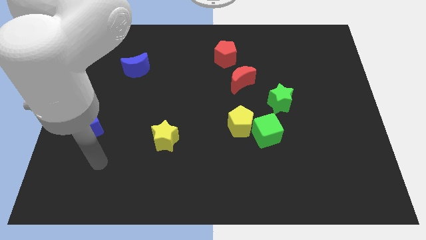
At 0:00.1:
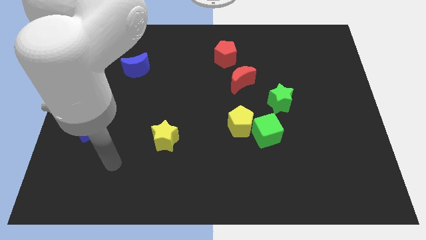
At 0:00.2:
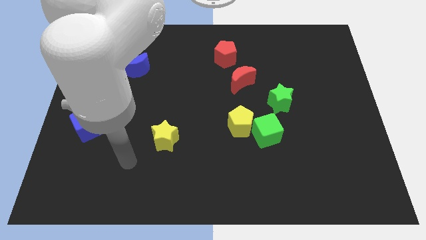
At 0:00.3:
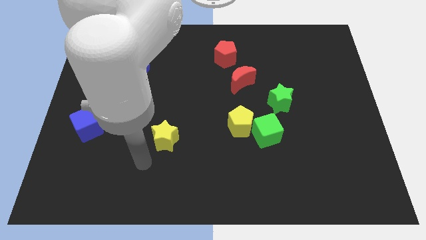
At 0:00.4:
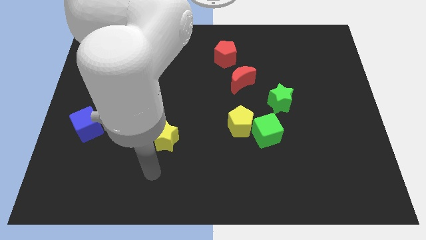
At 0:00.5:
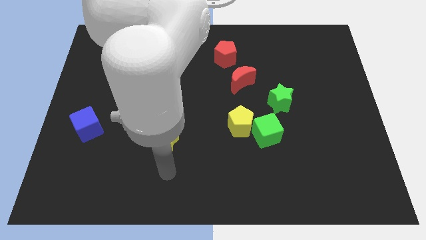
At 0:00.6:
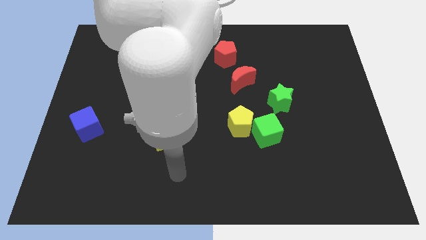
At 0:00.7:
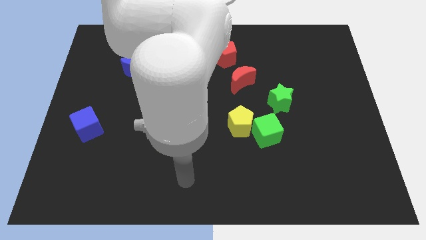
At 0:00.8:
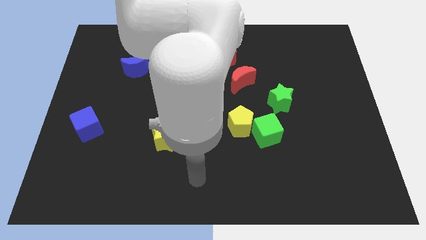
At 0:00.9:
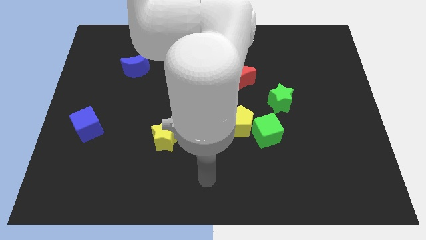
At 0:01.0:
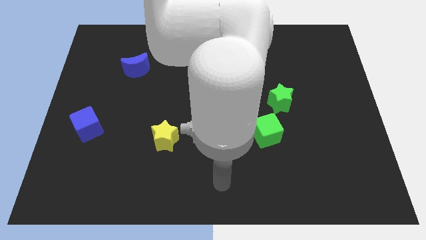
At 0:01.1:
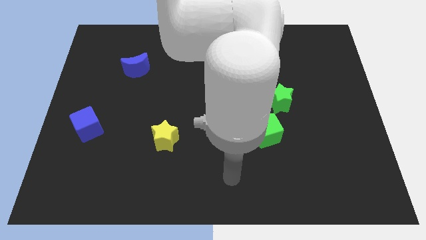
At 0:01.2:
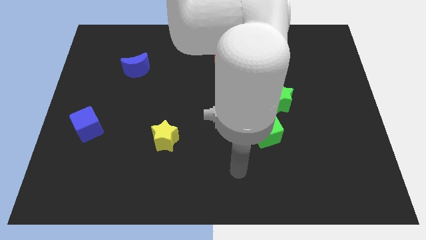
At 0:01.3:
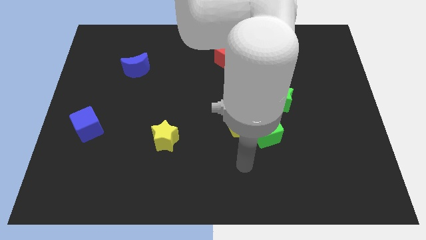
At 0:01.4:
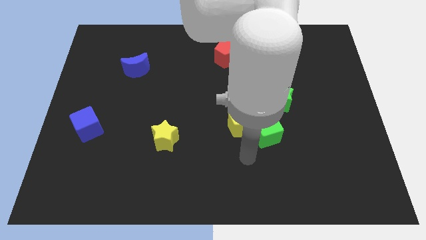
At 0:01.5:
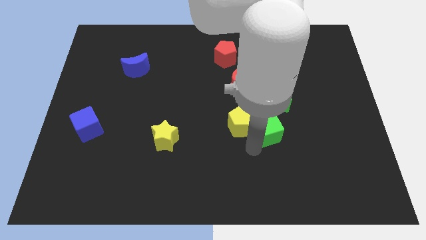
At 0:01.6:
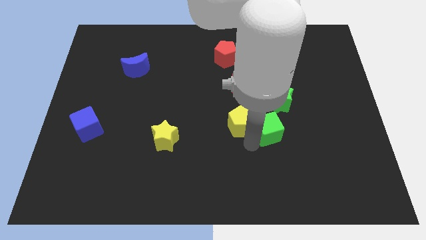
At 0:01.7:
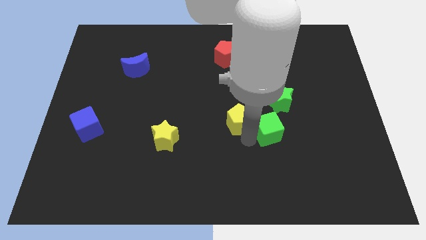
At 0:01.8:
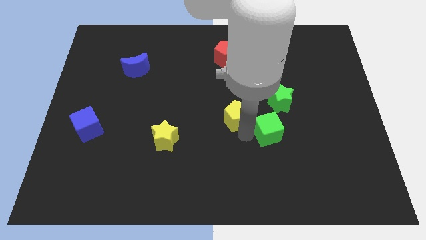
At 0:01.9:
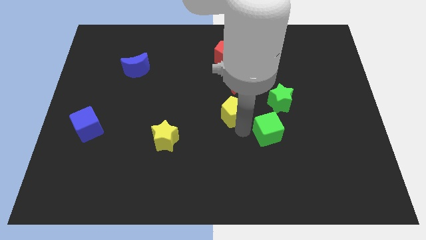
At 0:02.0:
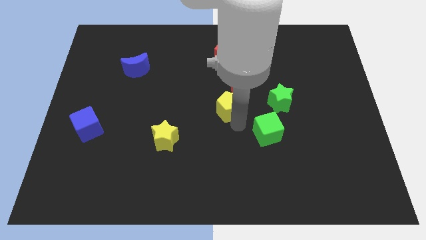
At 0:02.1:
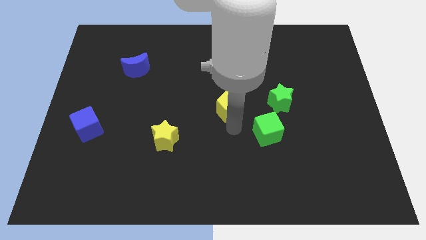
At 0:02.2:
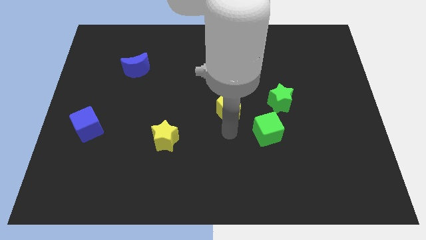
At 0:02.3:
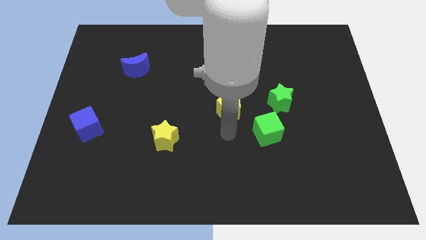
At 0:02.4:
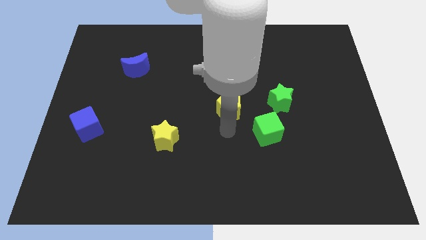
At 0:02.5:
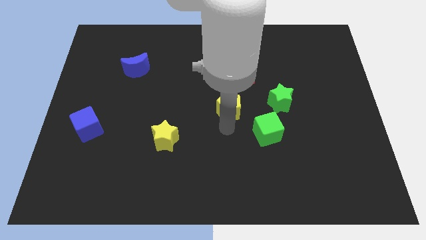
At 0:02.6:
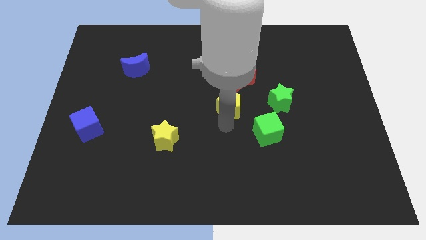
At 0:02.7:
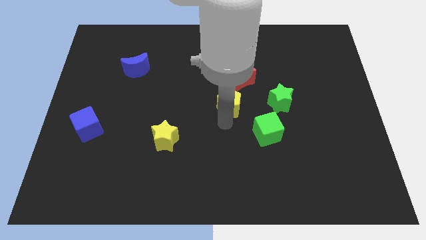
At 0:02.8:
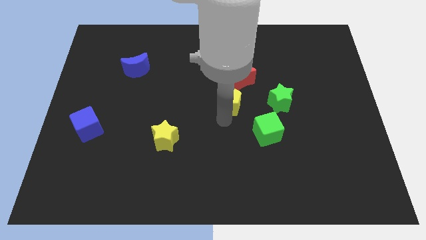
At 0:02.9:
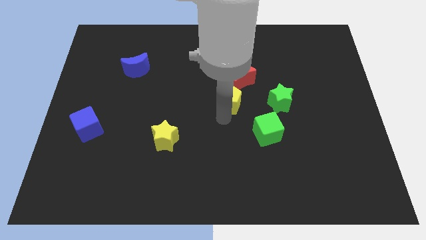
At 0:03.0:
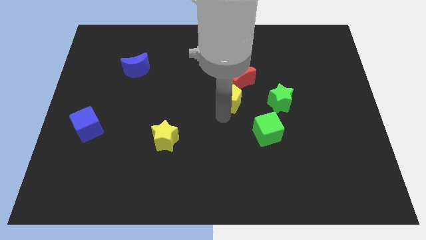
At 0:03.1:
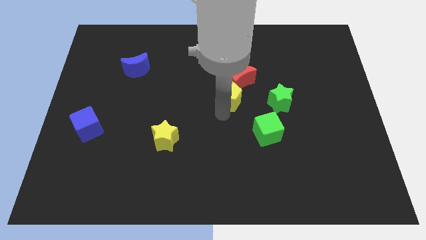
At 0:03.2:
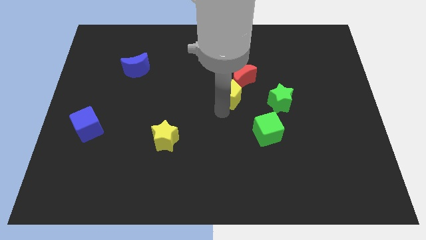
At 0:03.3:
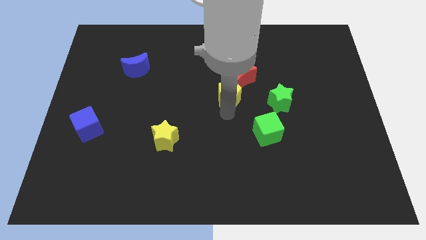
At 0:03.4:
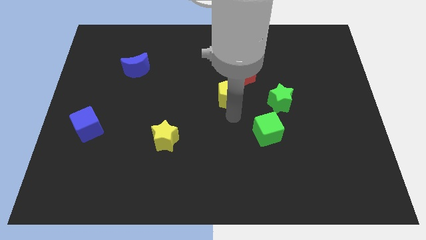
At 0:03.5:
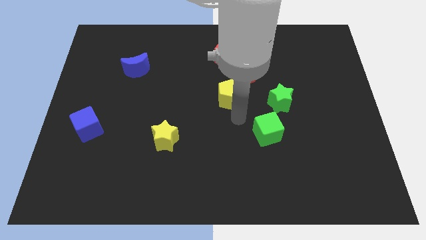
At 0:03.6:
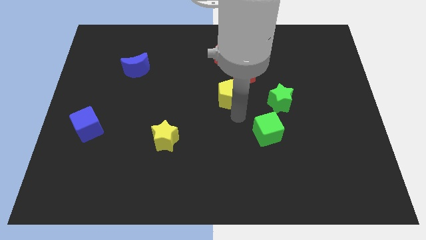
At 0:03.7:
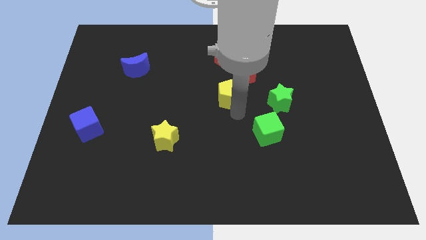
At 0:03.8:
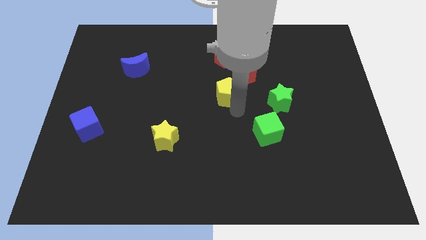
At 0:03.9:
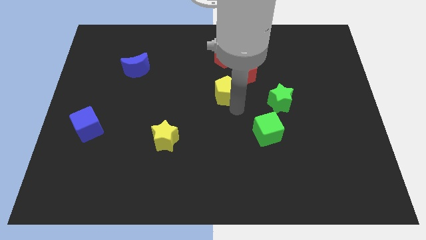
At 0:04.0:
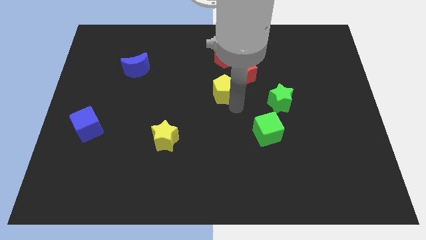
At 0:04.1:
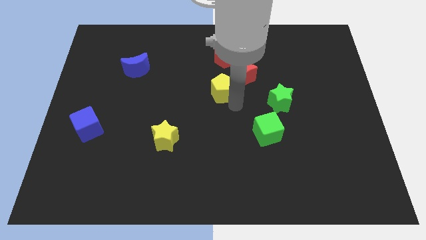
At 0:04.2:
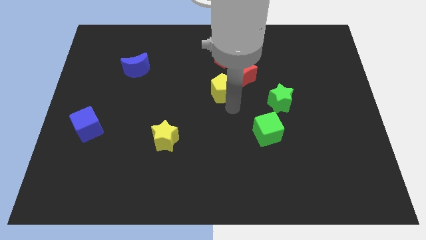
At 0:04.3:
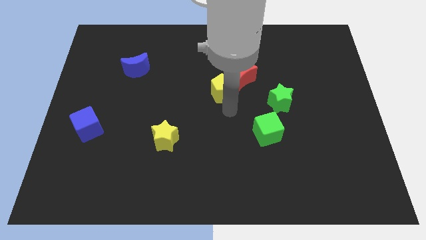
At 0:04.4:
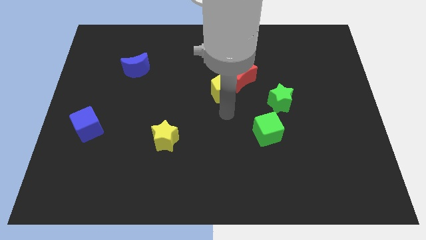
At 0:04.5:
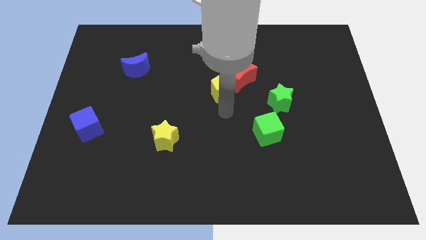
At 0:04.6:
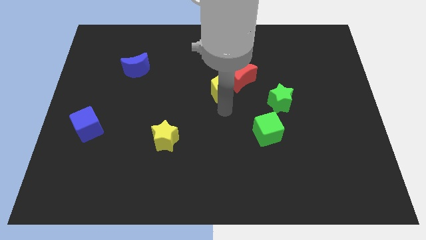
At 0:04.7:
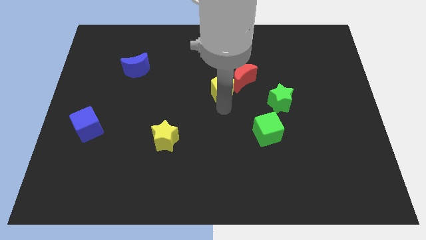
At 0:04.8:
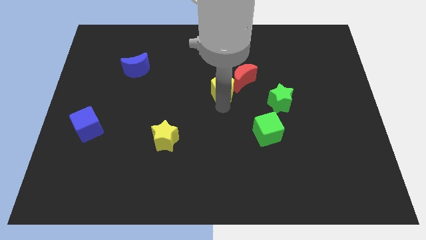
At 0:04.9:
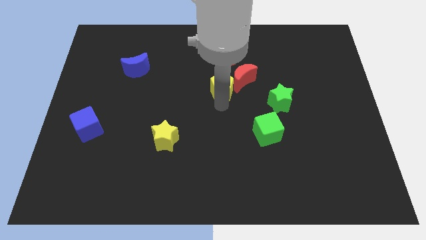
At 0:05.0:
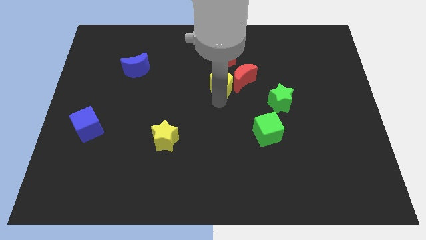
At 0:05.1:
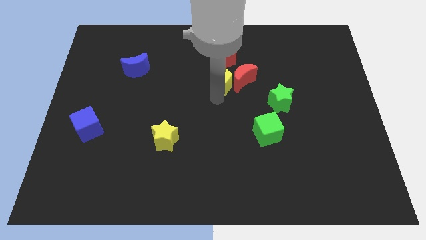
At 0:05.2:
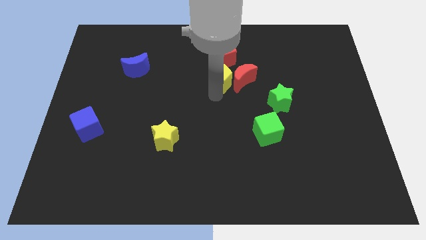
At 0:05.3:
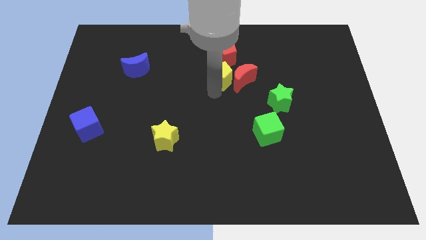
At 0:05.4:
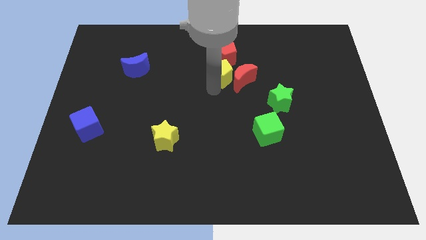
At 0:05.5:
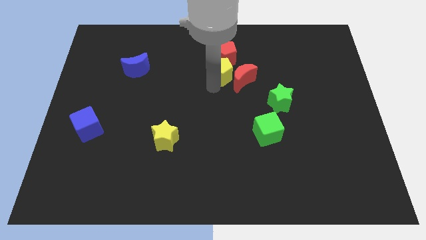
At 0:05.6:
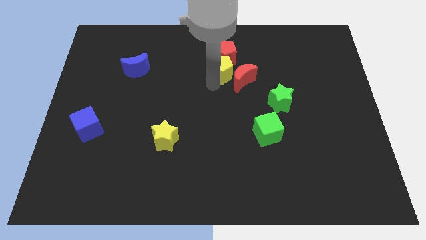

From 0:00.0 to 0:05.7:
push the yellow pentagon to the red pentagon

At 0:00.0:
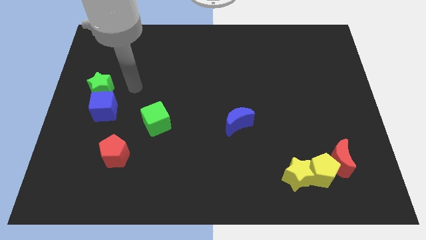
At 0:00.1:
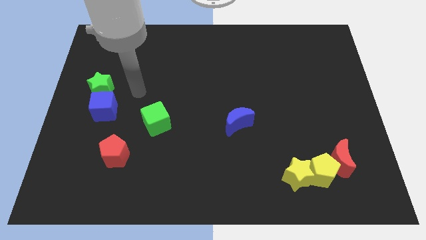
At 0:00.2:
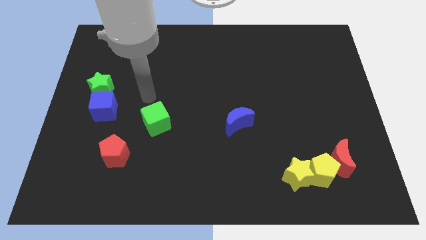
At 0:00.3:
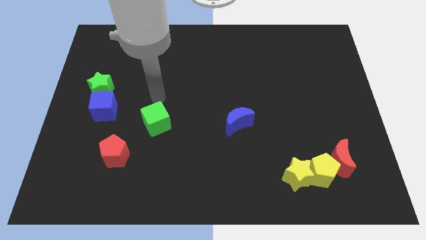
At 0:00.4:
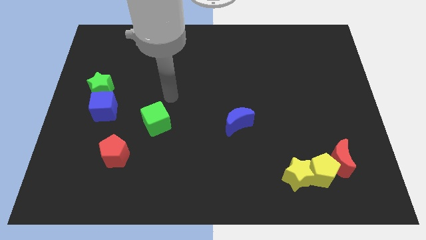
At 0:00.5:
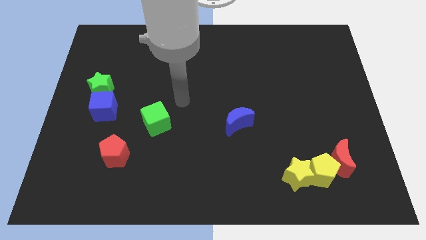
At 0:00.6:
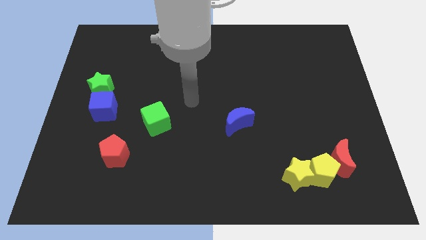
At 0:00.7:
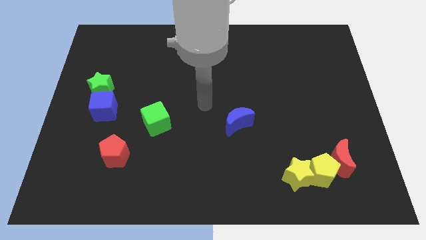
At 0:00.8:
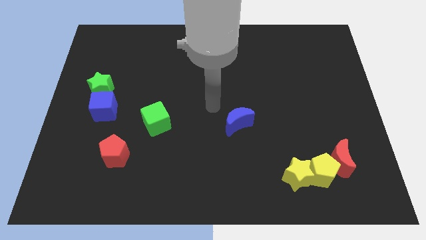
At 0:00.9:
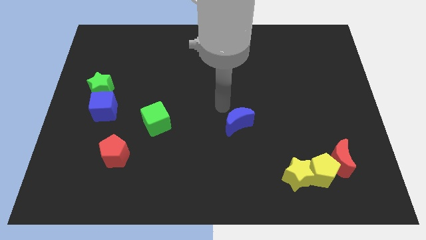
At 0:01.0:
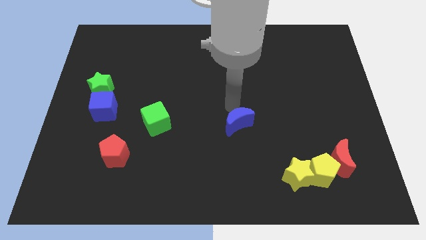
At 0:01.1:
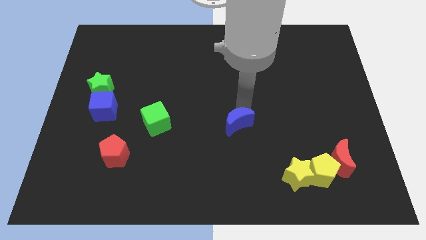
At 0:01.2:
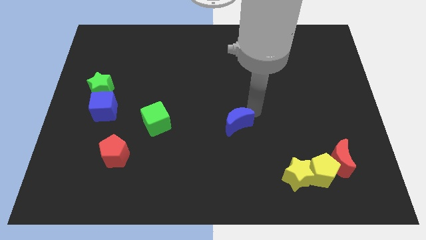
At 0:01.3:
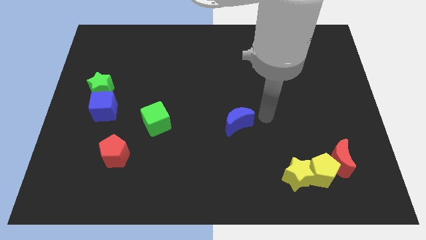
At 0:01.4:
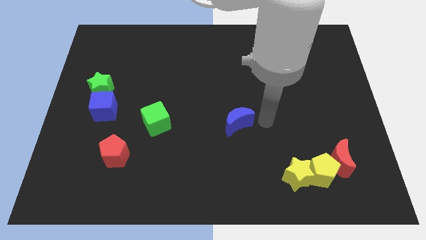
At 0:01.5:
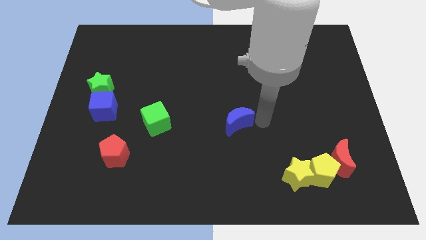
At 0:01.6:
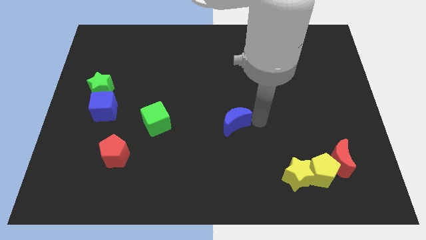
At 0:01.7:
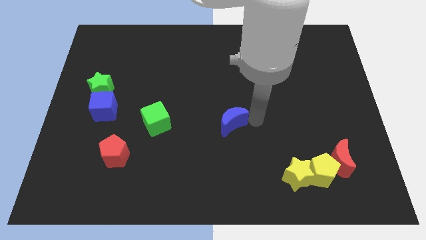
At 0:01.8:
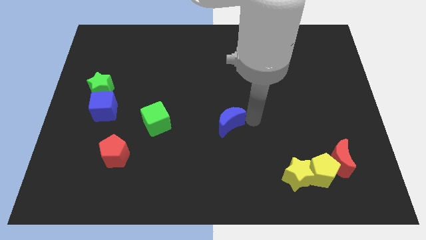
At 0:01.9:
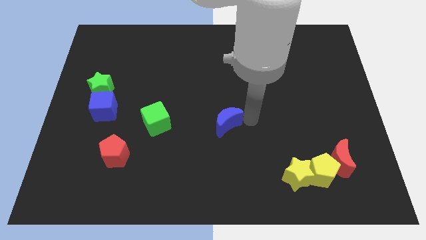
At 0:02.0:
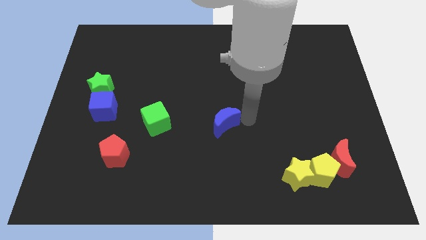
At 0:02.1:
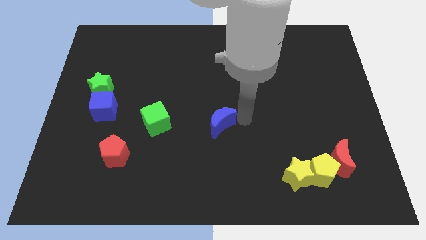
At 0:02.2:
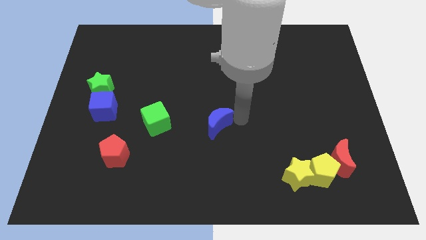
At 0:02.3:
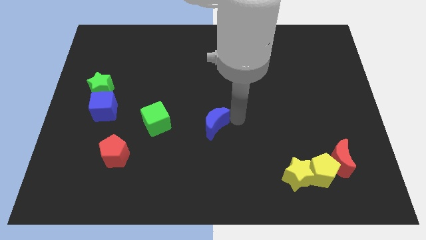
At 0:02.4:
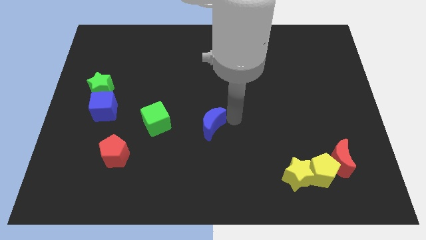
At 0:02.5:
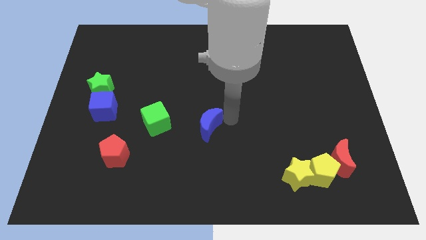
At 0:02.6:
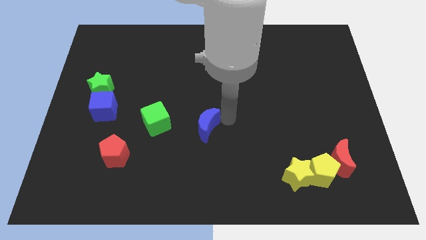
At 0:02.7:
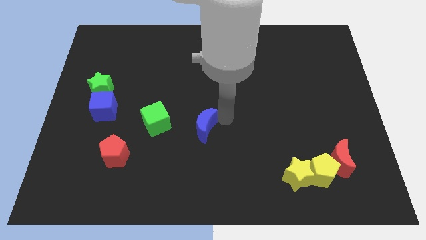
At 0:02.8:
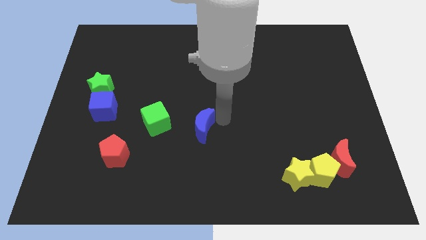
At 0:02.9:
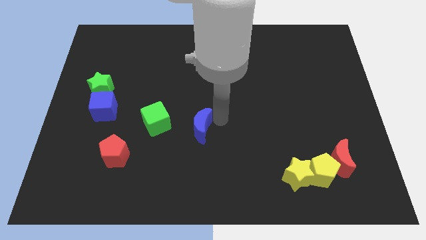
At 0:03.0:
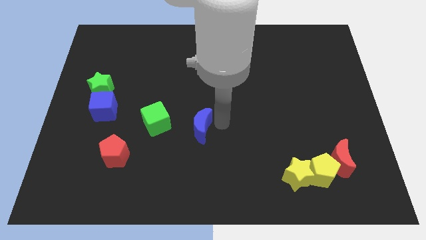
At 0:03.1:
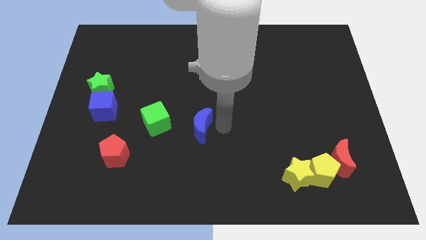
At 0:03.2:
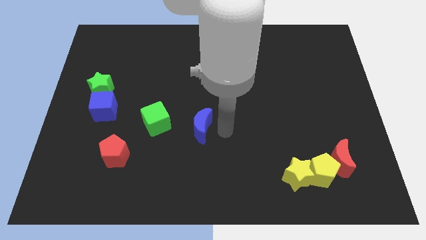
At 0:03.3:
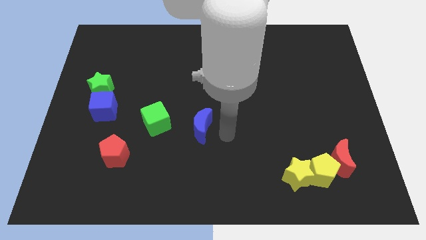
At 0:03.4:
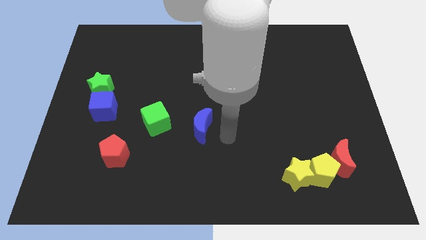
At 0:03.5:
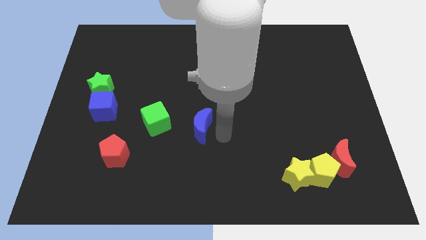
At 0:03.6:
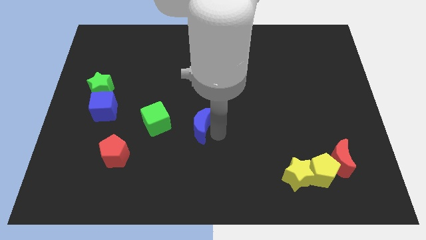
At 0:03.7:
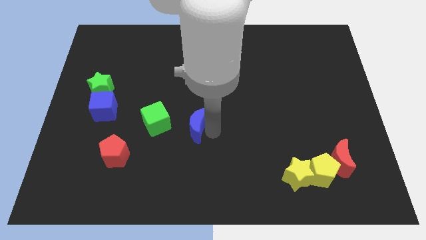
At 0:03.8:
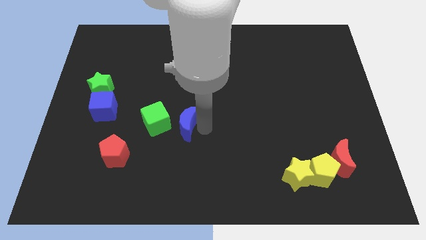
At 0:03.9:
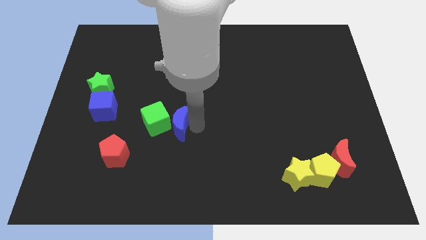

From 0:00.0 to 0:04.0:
move the blue moon towards the green cube
